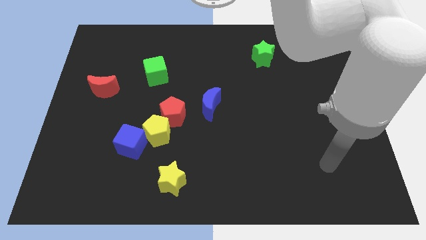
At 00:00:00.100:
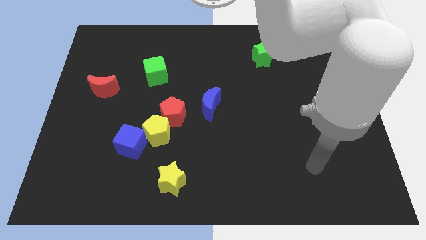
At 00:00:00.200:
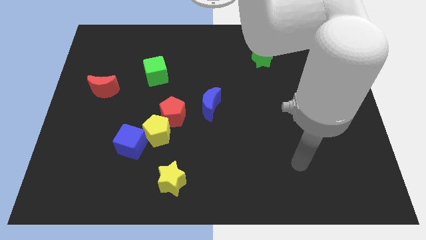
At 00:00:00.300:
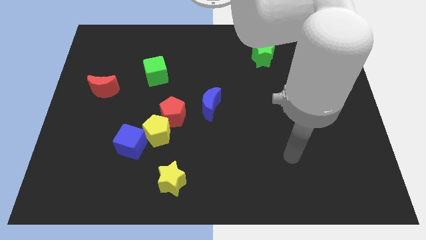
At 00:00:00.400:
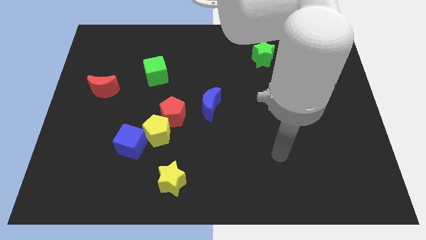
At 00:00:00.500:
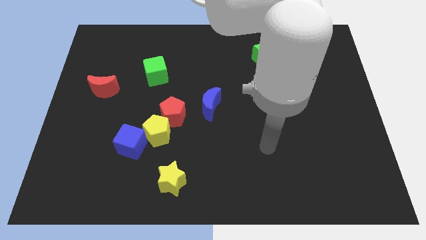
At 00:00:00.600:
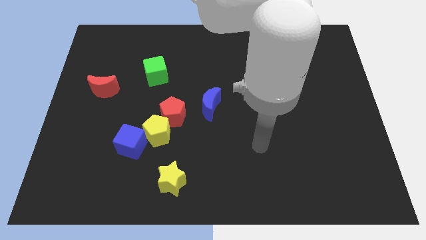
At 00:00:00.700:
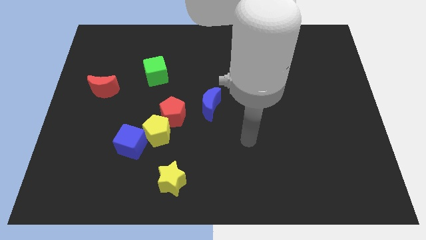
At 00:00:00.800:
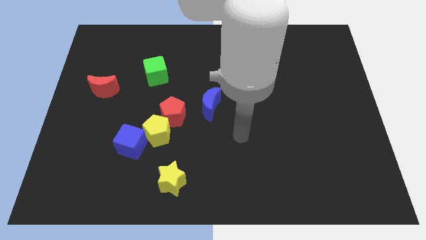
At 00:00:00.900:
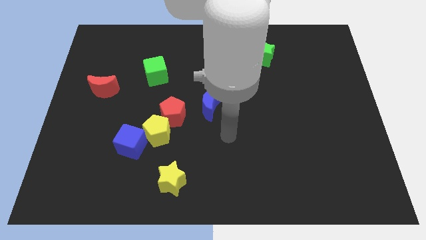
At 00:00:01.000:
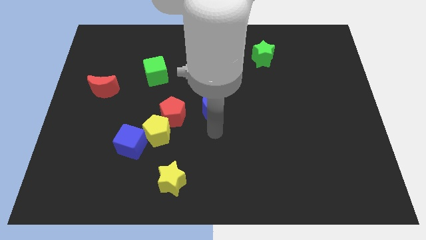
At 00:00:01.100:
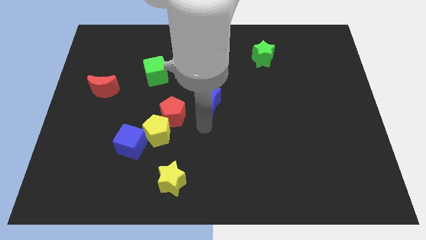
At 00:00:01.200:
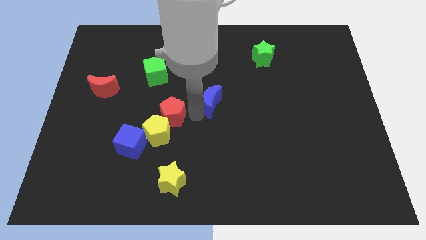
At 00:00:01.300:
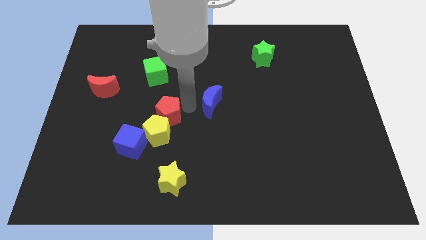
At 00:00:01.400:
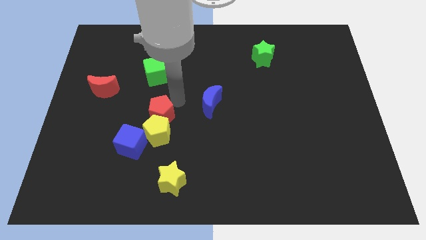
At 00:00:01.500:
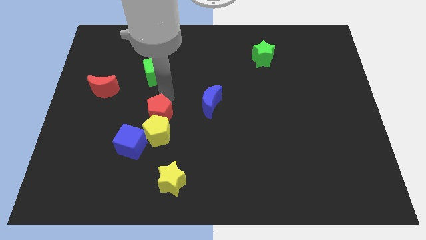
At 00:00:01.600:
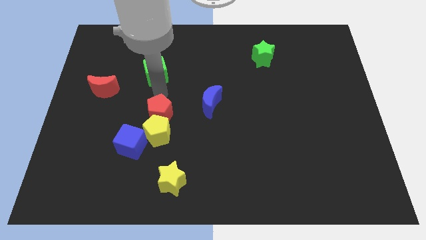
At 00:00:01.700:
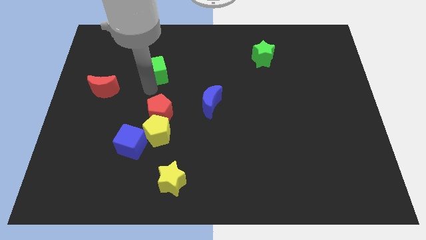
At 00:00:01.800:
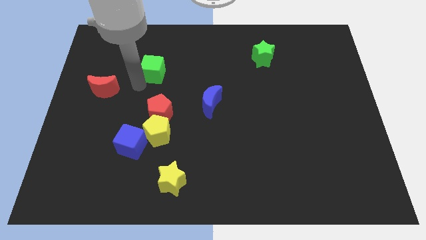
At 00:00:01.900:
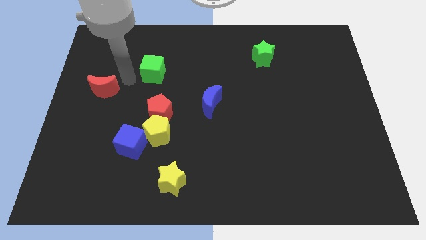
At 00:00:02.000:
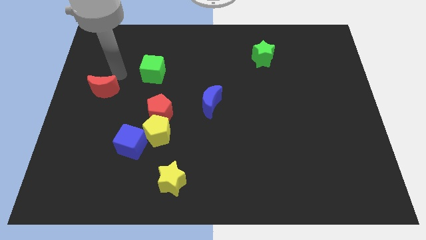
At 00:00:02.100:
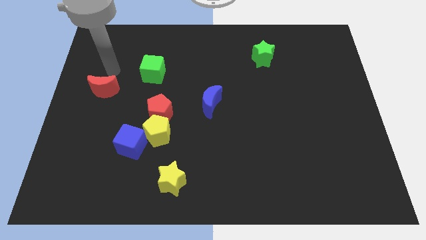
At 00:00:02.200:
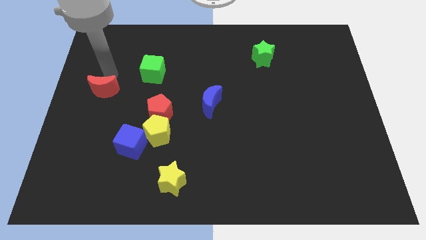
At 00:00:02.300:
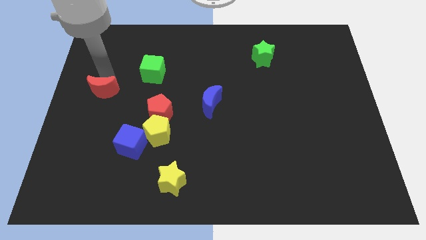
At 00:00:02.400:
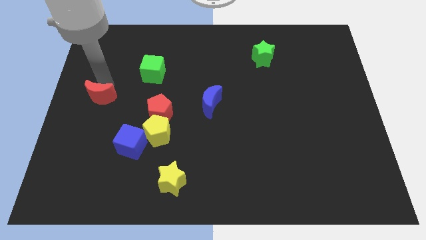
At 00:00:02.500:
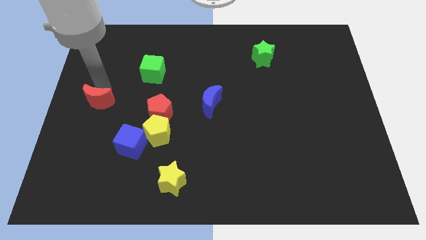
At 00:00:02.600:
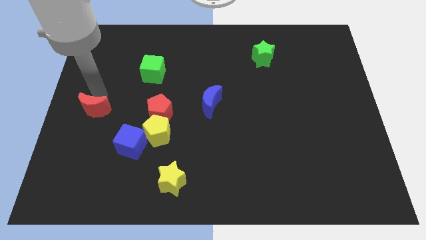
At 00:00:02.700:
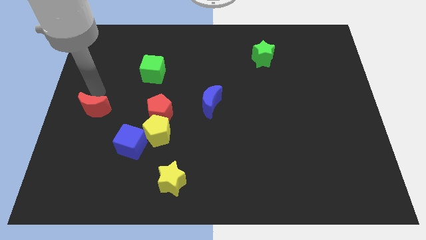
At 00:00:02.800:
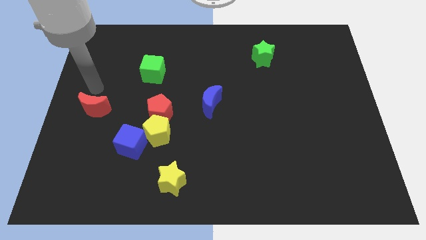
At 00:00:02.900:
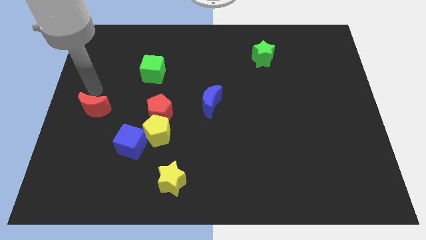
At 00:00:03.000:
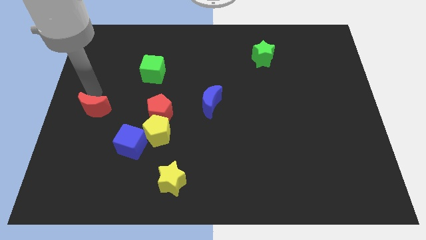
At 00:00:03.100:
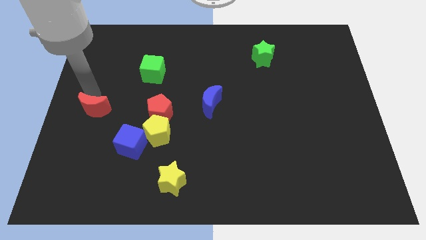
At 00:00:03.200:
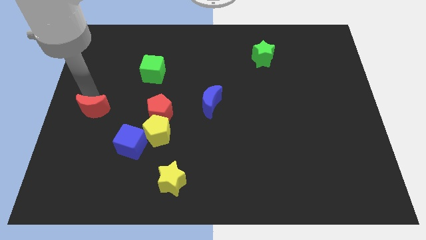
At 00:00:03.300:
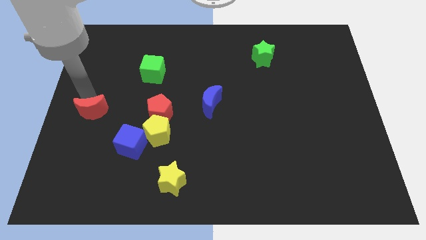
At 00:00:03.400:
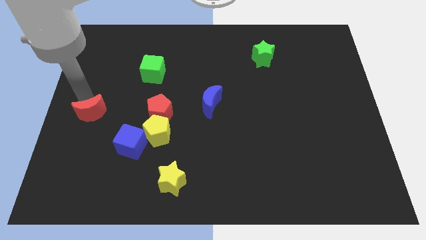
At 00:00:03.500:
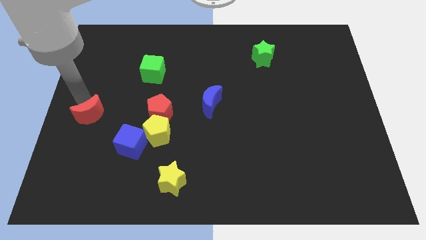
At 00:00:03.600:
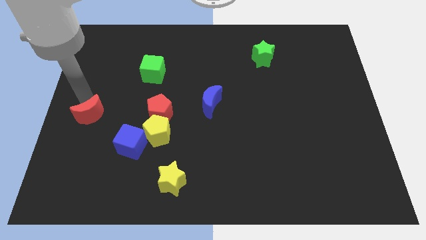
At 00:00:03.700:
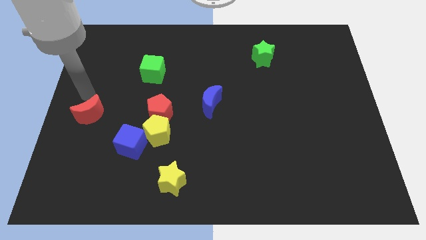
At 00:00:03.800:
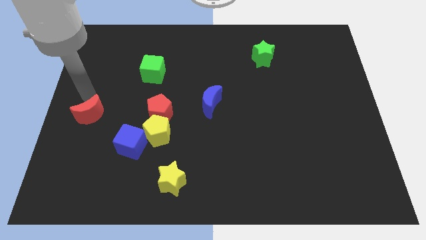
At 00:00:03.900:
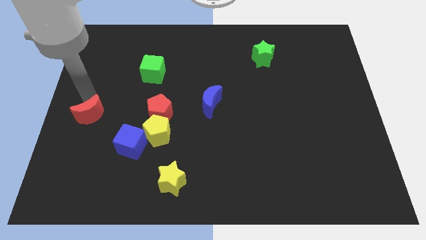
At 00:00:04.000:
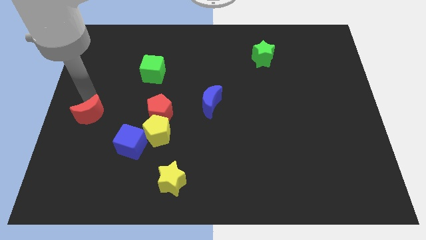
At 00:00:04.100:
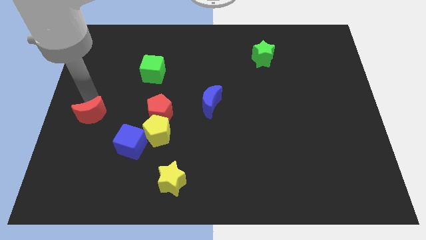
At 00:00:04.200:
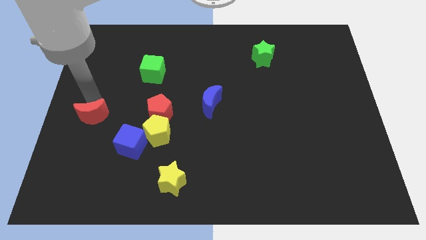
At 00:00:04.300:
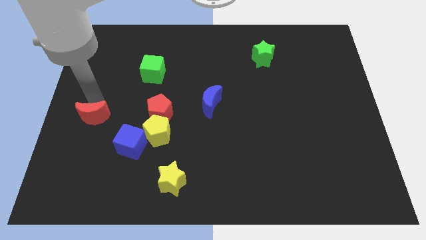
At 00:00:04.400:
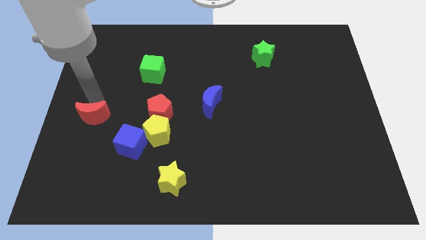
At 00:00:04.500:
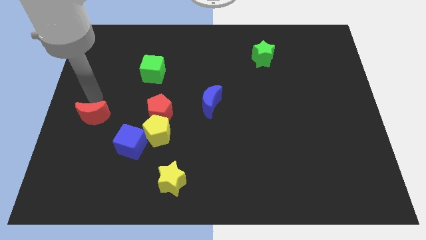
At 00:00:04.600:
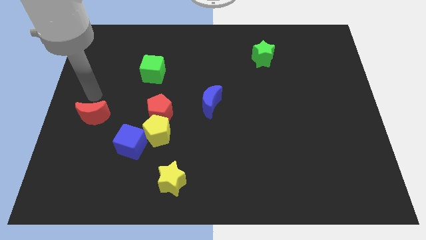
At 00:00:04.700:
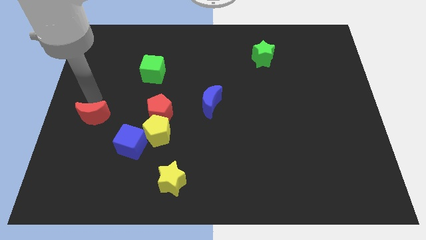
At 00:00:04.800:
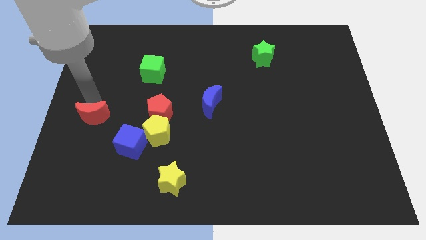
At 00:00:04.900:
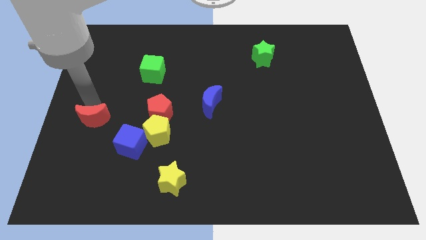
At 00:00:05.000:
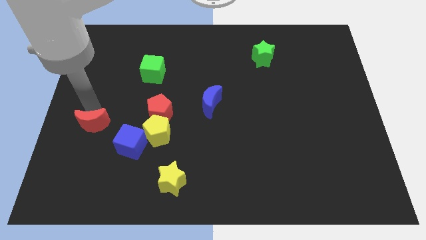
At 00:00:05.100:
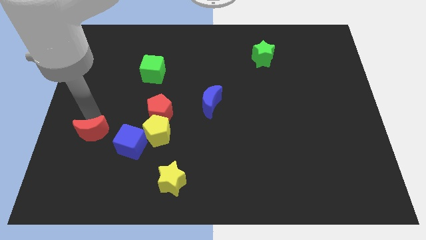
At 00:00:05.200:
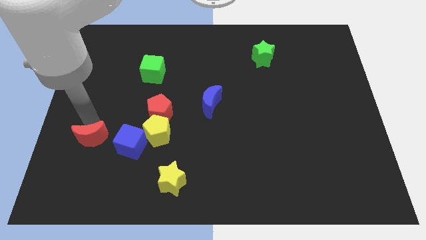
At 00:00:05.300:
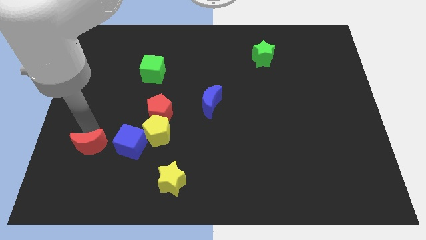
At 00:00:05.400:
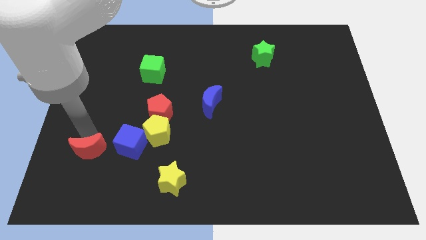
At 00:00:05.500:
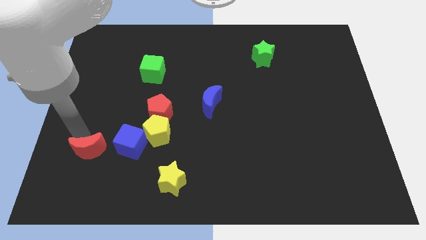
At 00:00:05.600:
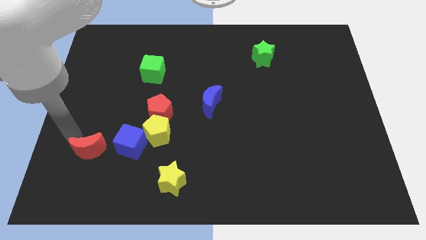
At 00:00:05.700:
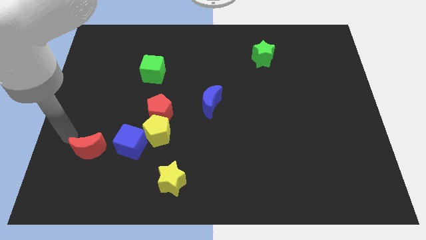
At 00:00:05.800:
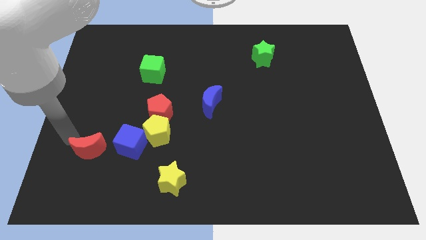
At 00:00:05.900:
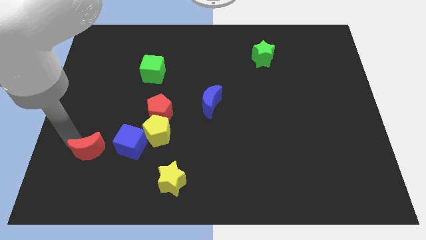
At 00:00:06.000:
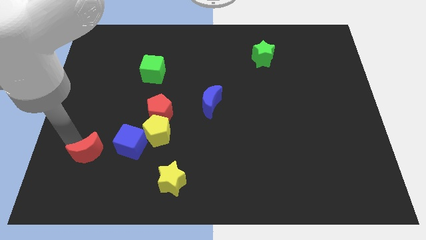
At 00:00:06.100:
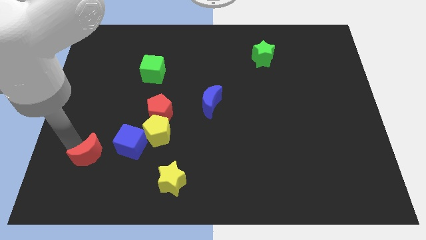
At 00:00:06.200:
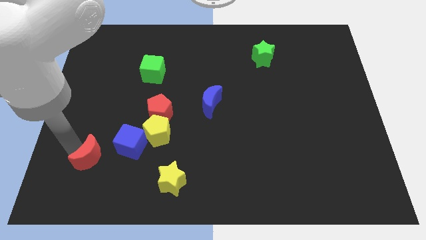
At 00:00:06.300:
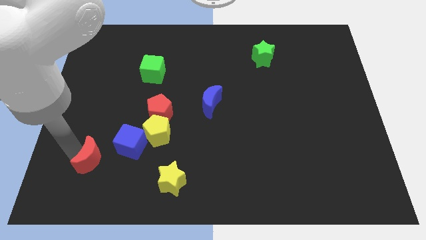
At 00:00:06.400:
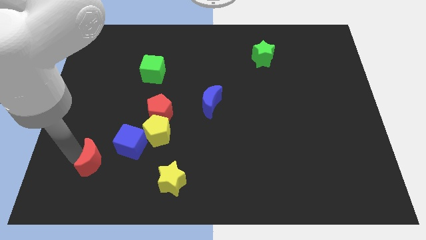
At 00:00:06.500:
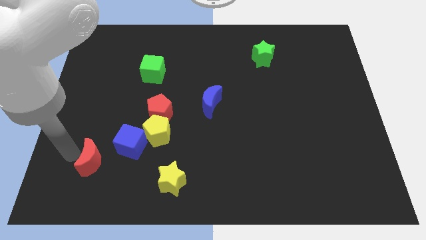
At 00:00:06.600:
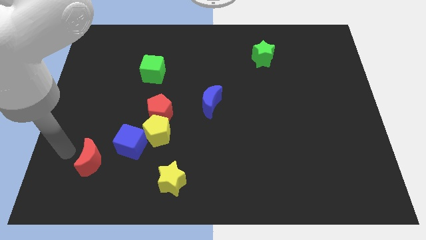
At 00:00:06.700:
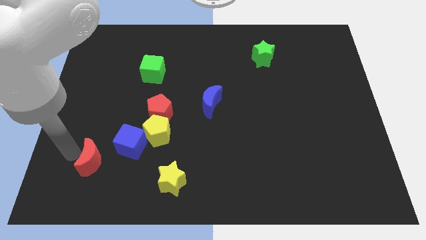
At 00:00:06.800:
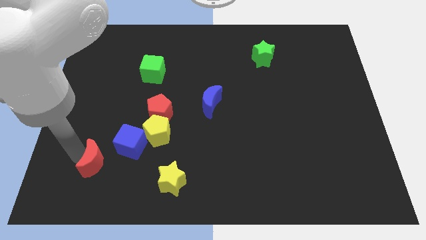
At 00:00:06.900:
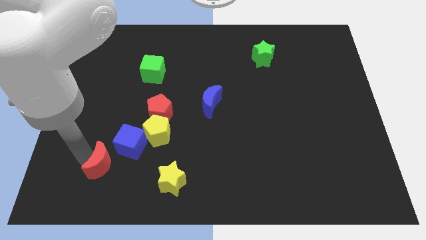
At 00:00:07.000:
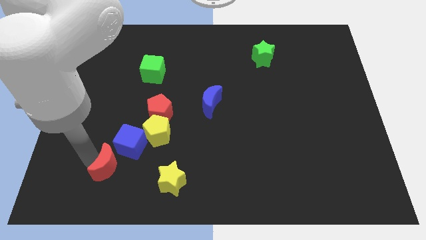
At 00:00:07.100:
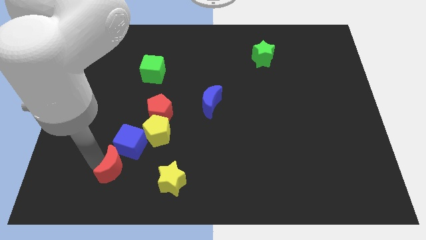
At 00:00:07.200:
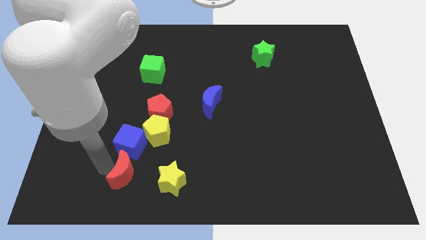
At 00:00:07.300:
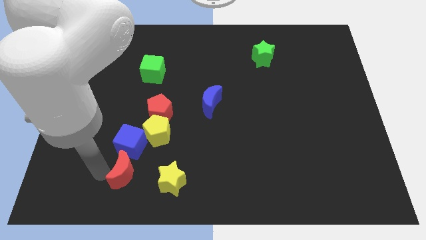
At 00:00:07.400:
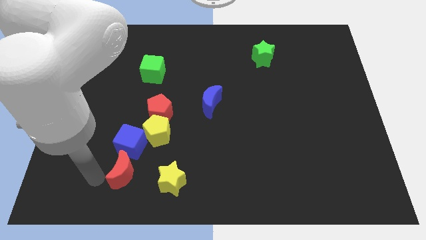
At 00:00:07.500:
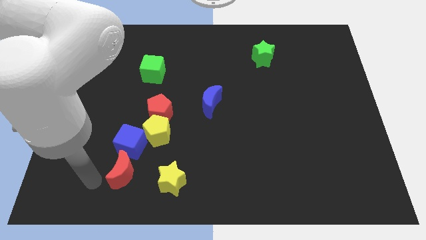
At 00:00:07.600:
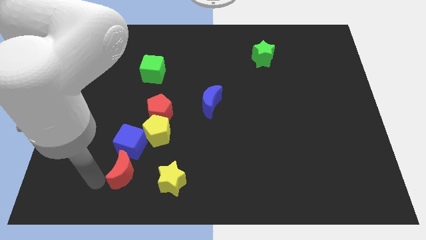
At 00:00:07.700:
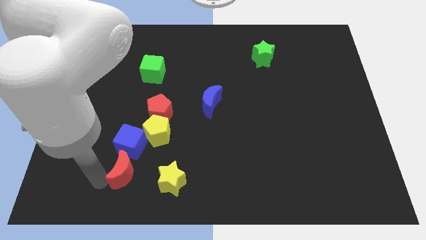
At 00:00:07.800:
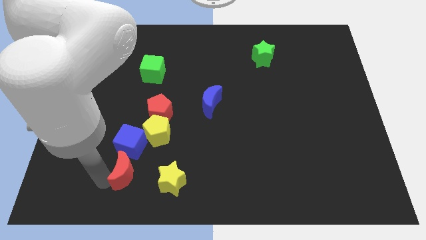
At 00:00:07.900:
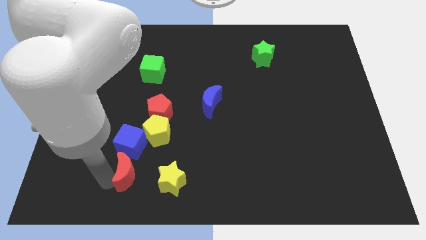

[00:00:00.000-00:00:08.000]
move the red moon to the bottom right of the blue cube
